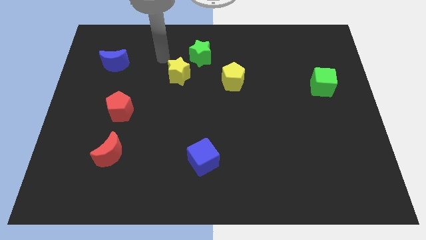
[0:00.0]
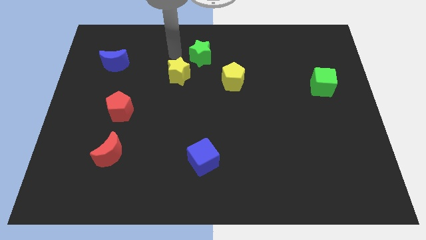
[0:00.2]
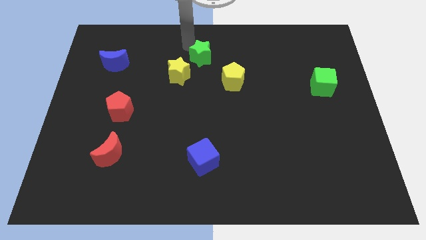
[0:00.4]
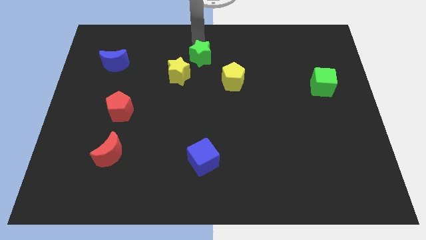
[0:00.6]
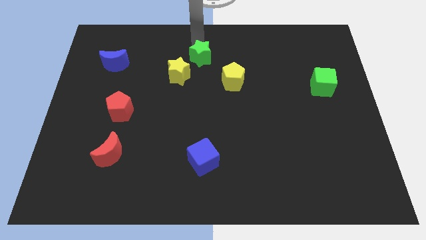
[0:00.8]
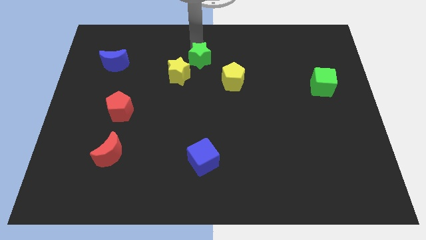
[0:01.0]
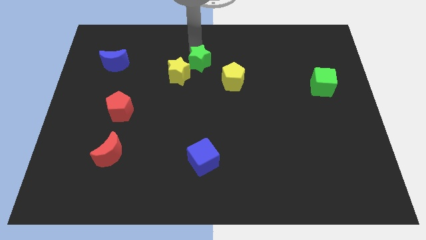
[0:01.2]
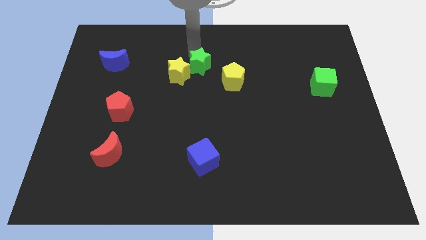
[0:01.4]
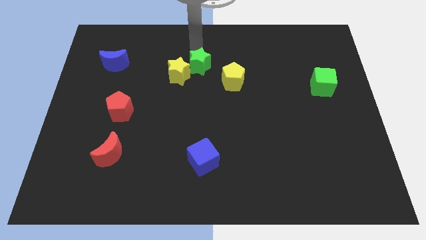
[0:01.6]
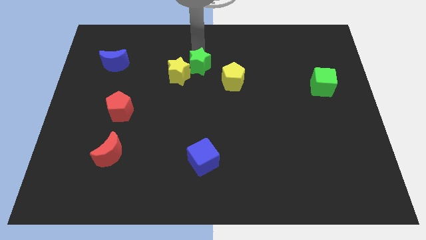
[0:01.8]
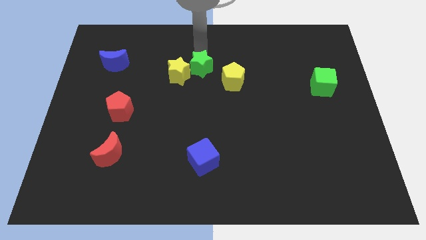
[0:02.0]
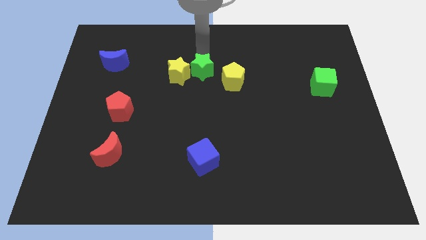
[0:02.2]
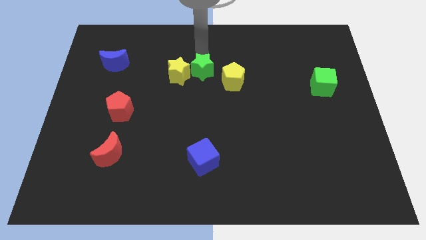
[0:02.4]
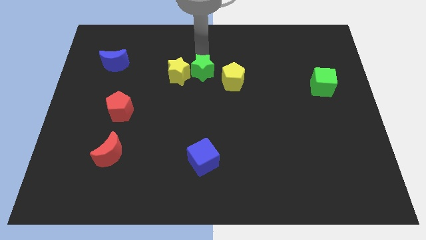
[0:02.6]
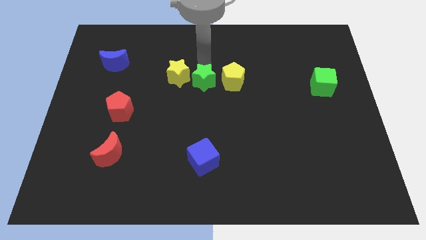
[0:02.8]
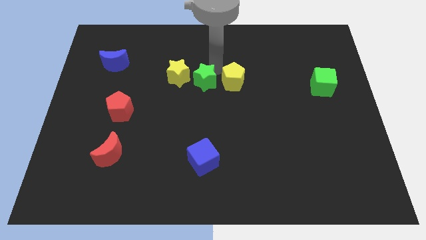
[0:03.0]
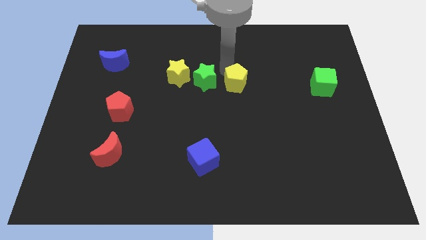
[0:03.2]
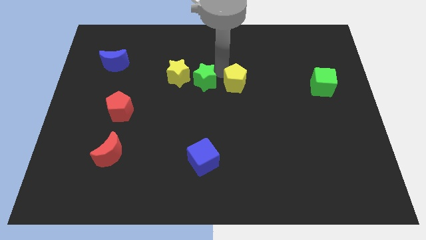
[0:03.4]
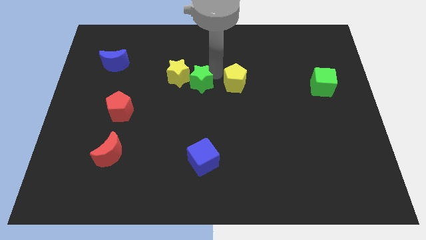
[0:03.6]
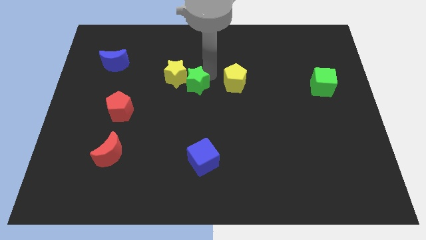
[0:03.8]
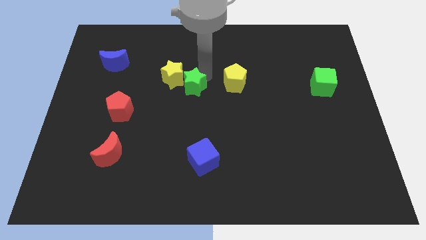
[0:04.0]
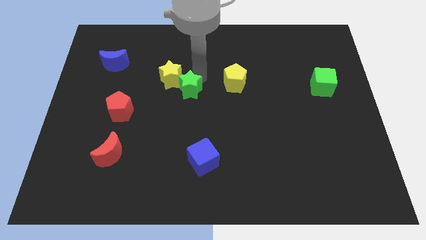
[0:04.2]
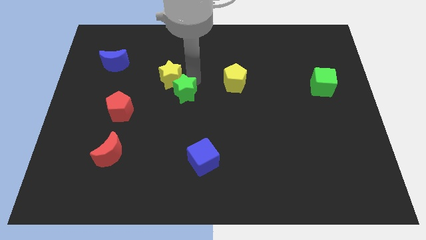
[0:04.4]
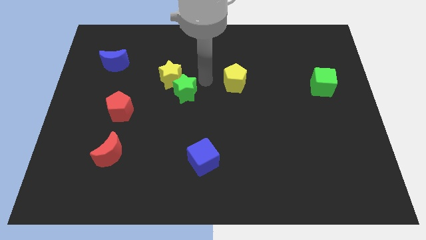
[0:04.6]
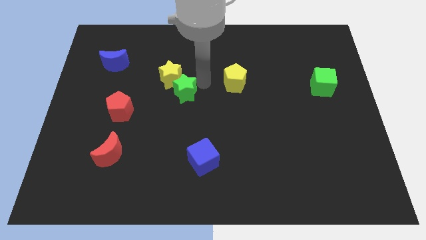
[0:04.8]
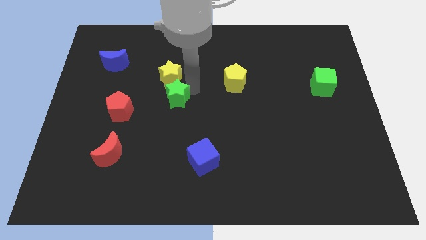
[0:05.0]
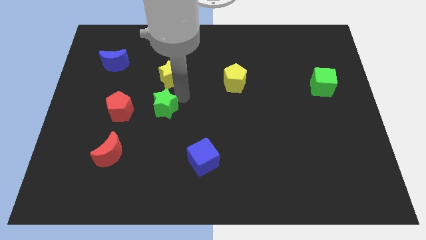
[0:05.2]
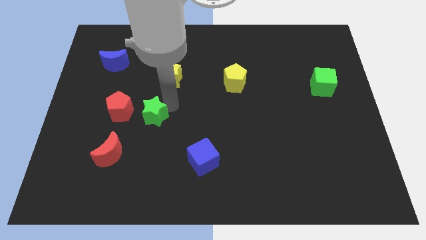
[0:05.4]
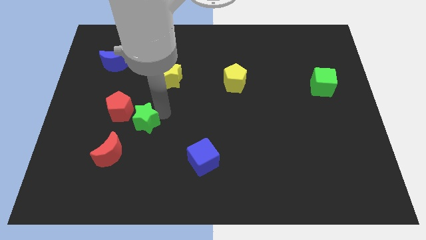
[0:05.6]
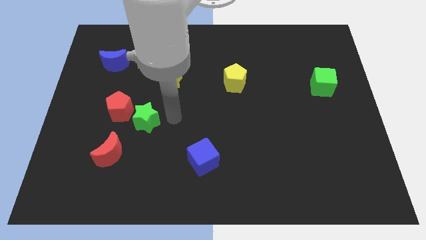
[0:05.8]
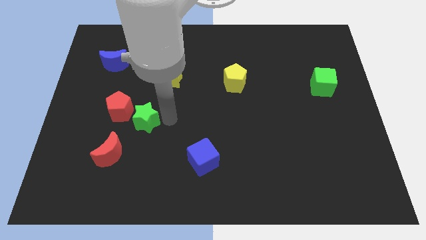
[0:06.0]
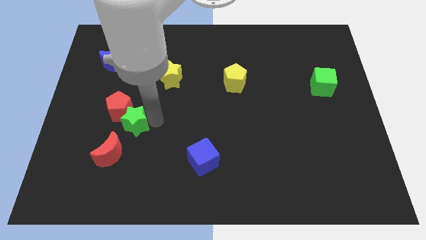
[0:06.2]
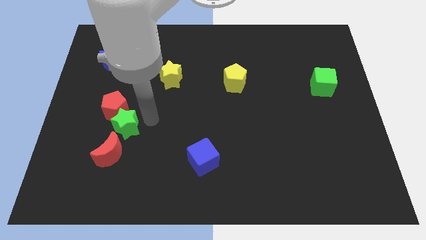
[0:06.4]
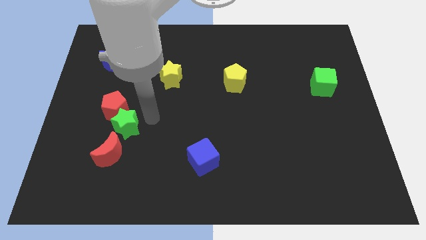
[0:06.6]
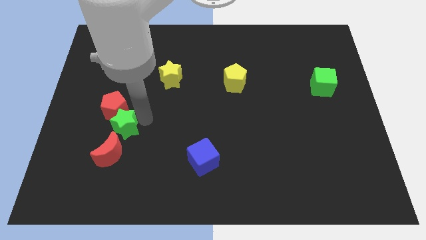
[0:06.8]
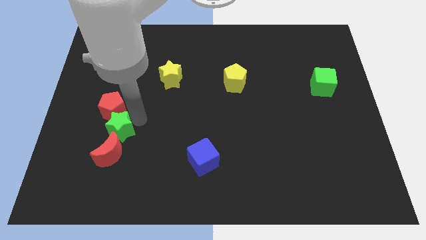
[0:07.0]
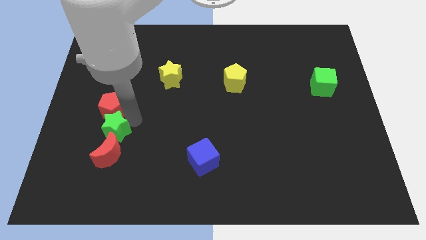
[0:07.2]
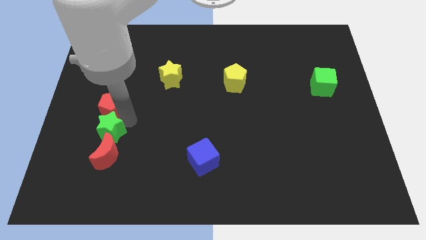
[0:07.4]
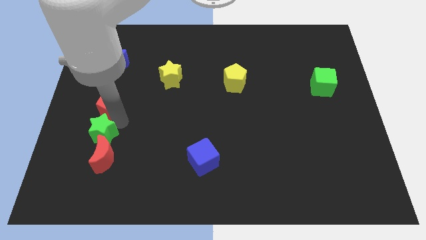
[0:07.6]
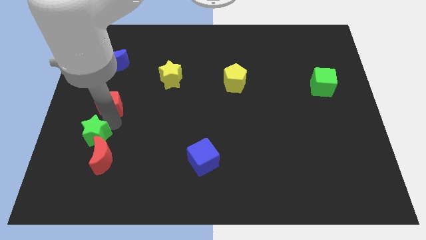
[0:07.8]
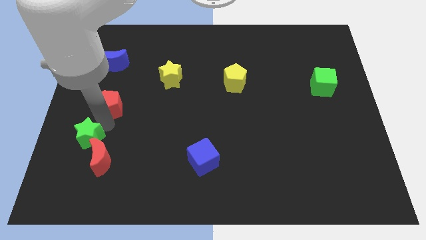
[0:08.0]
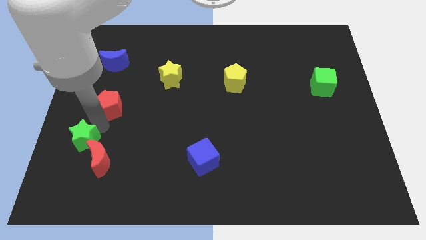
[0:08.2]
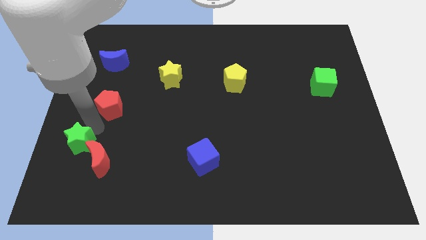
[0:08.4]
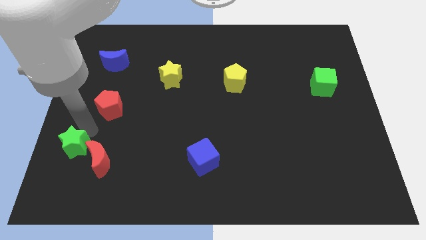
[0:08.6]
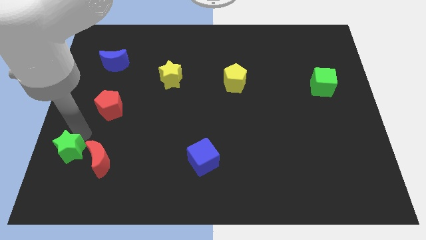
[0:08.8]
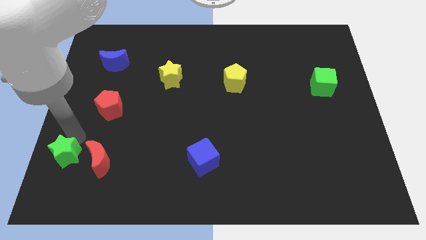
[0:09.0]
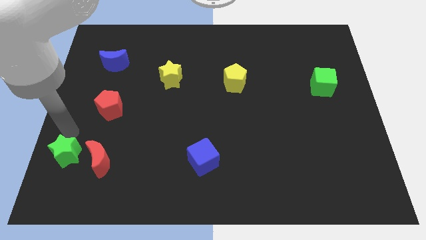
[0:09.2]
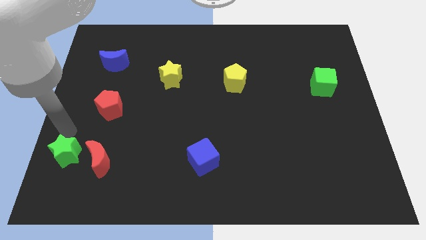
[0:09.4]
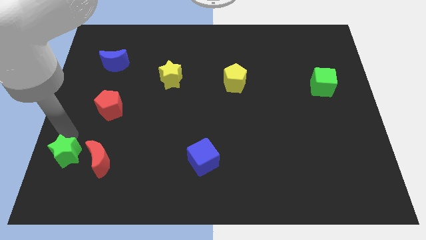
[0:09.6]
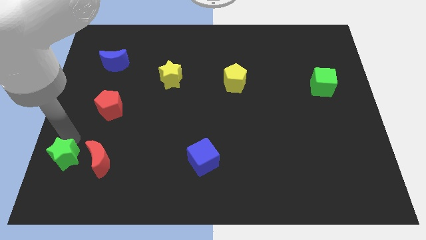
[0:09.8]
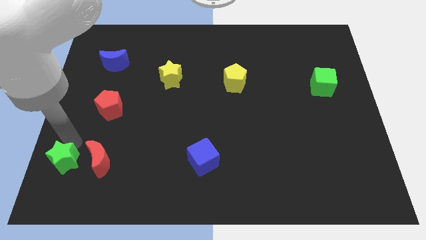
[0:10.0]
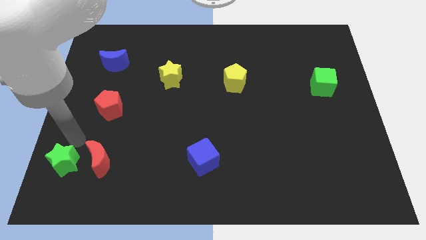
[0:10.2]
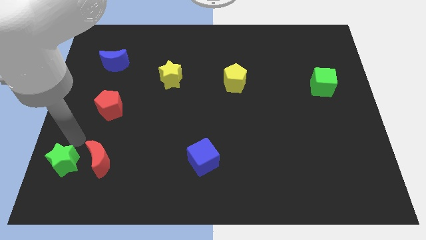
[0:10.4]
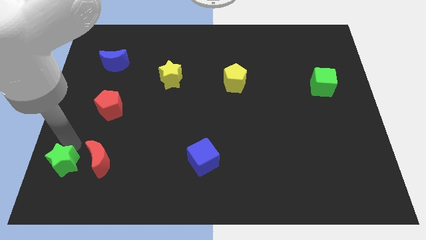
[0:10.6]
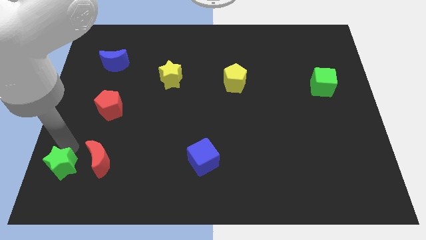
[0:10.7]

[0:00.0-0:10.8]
move the green star to the bottom left of the board

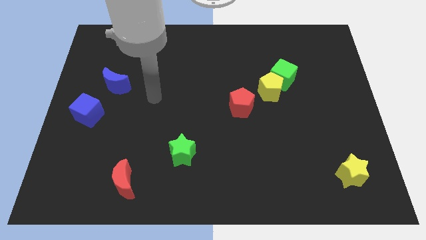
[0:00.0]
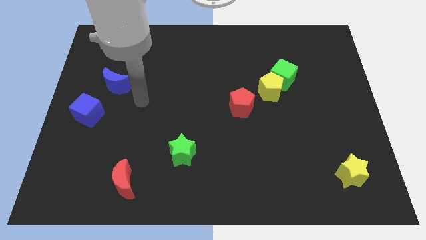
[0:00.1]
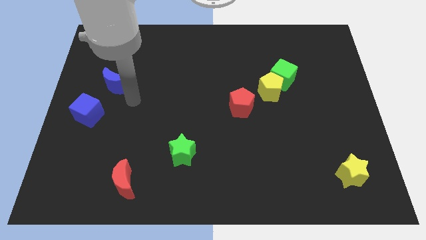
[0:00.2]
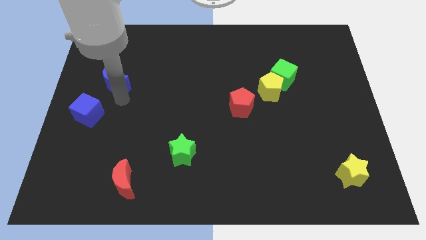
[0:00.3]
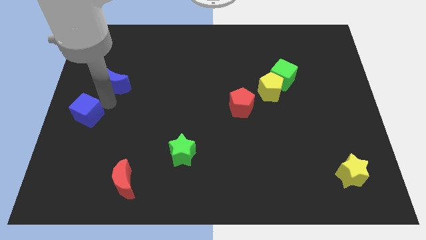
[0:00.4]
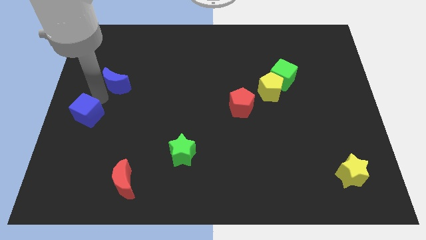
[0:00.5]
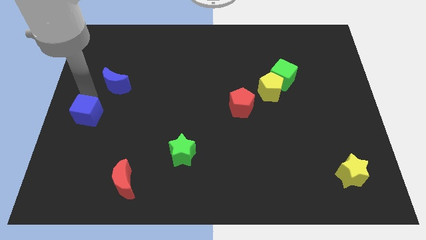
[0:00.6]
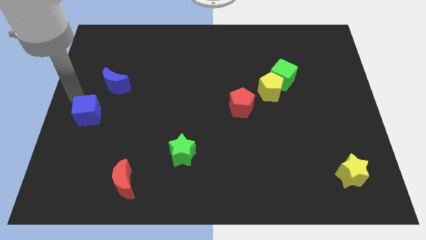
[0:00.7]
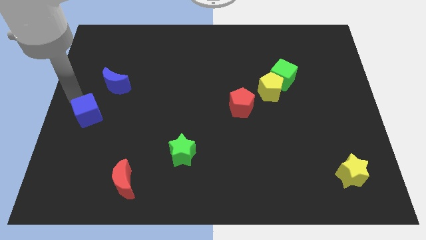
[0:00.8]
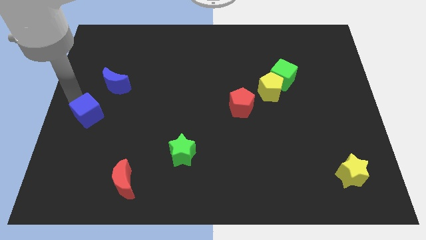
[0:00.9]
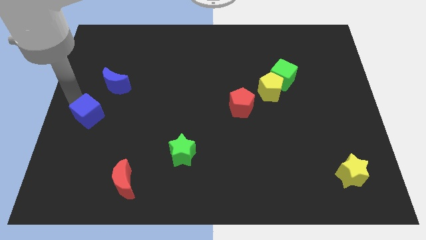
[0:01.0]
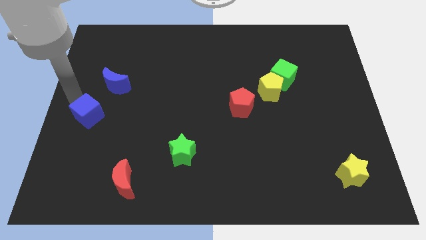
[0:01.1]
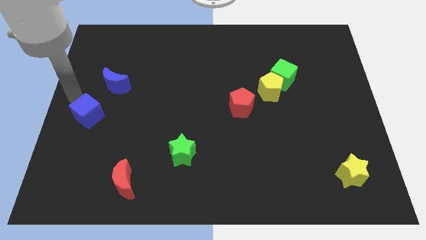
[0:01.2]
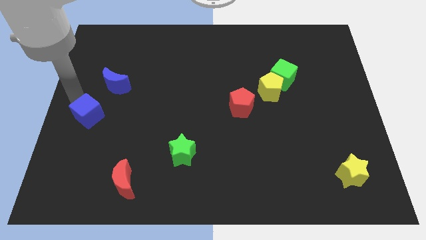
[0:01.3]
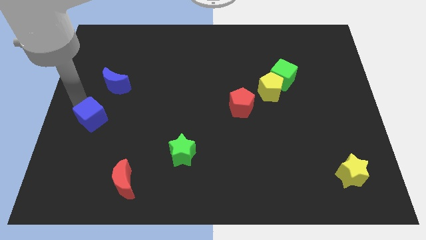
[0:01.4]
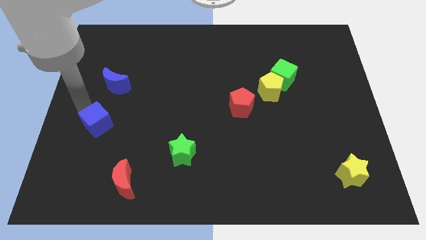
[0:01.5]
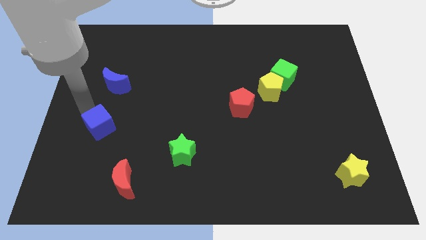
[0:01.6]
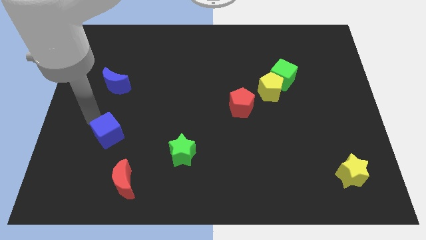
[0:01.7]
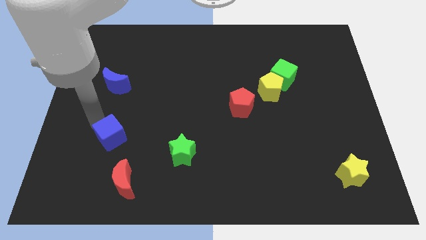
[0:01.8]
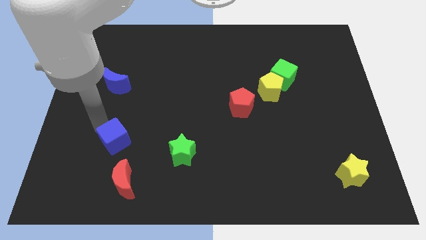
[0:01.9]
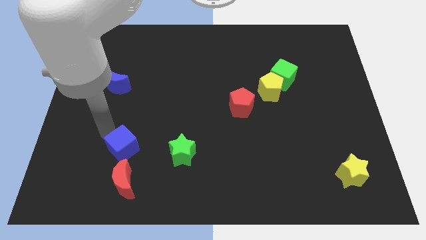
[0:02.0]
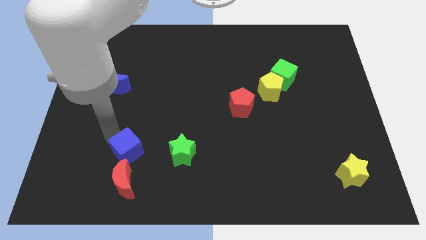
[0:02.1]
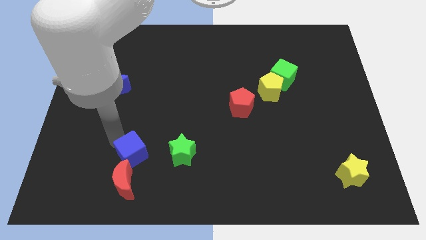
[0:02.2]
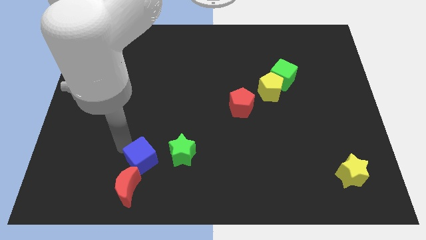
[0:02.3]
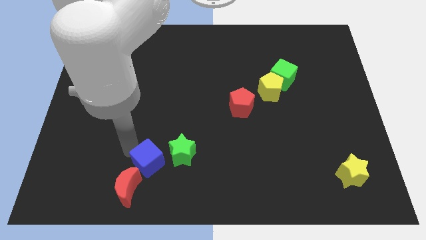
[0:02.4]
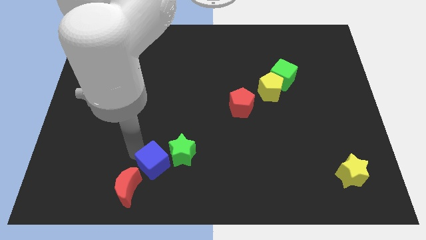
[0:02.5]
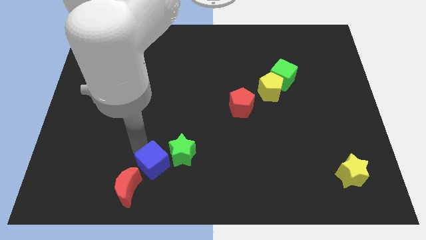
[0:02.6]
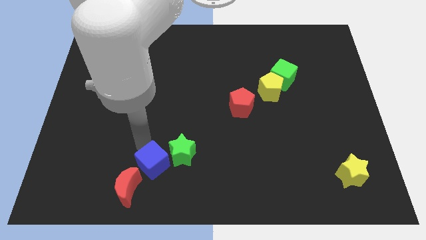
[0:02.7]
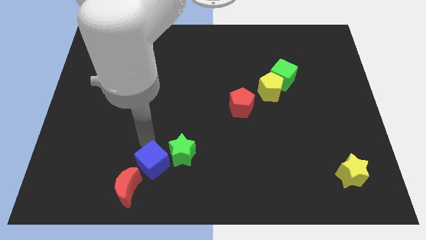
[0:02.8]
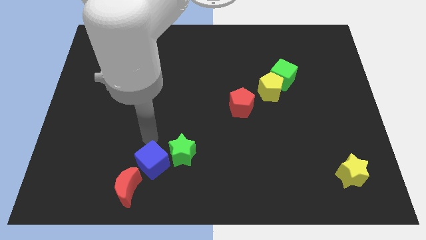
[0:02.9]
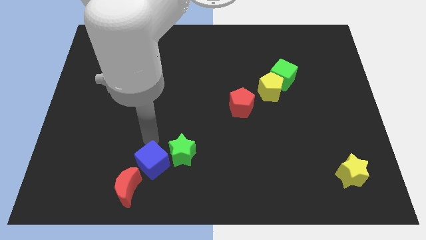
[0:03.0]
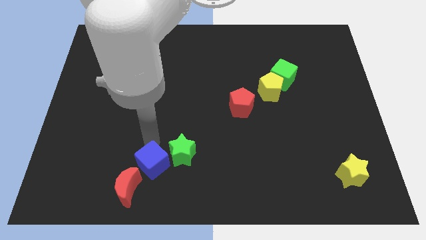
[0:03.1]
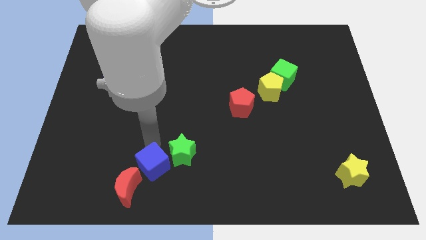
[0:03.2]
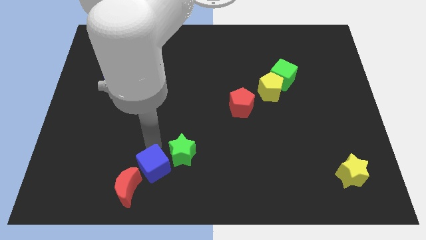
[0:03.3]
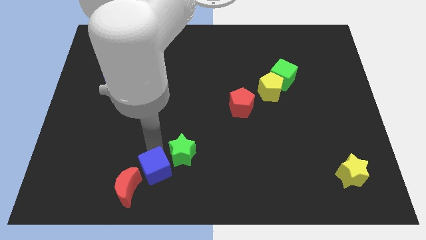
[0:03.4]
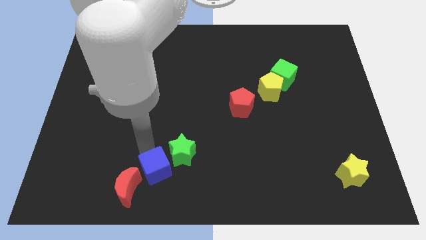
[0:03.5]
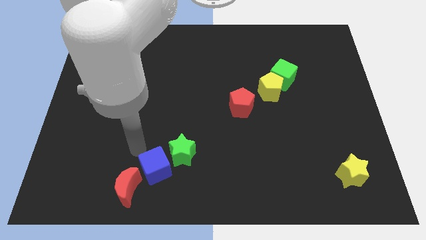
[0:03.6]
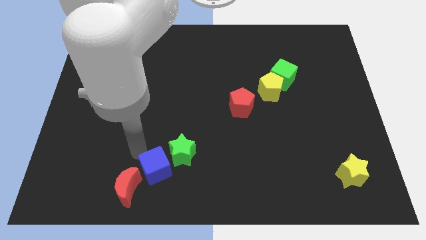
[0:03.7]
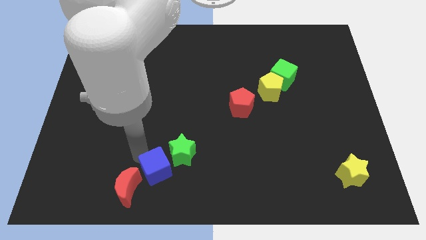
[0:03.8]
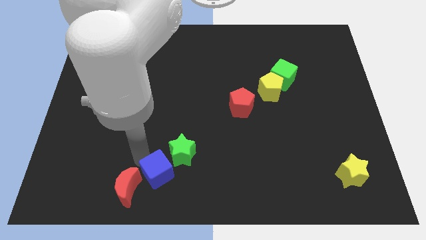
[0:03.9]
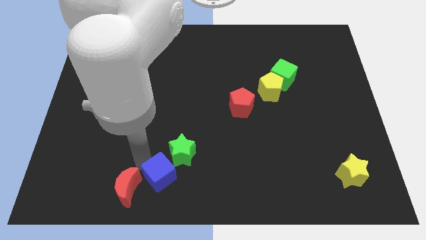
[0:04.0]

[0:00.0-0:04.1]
slide the blue cube to the bottom side
